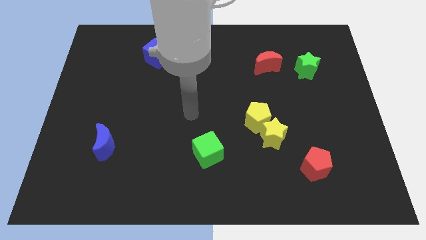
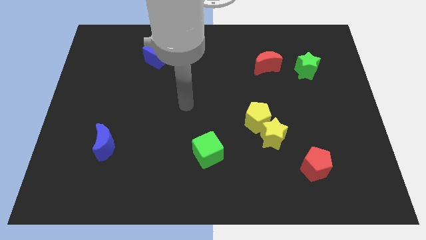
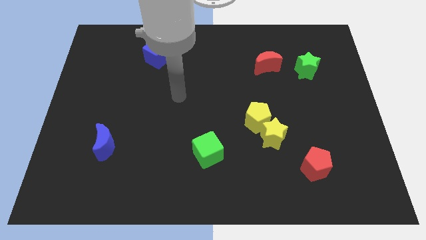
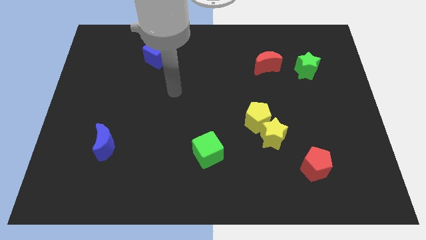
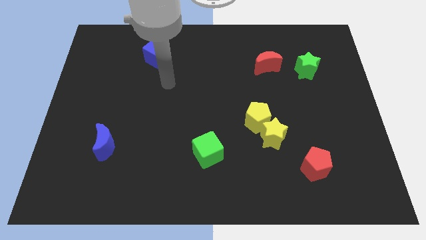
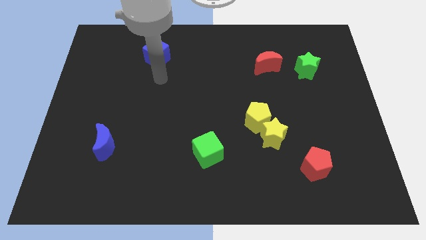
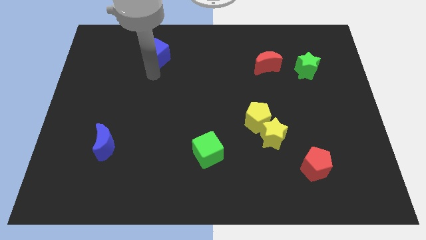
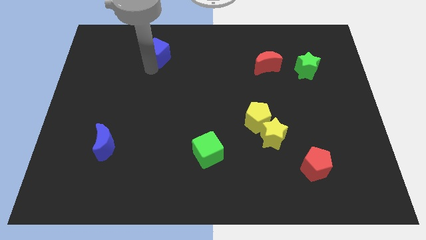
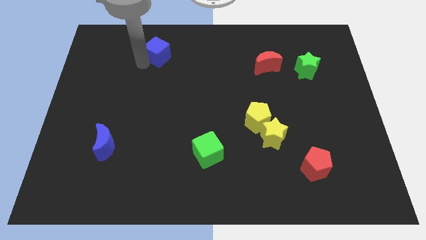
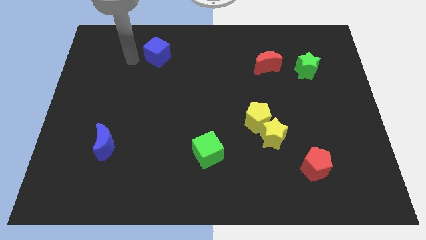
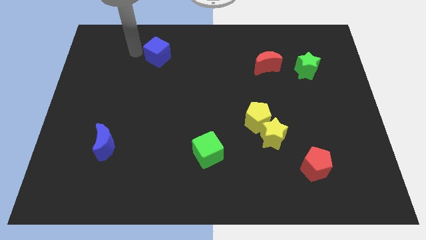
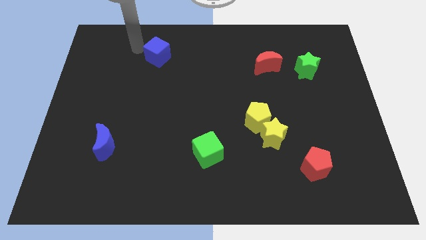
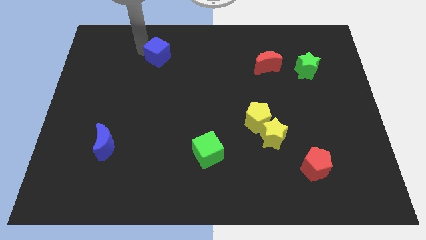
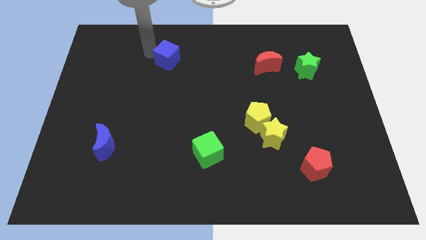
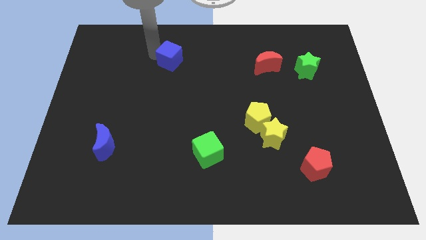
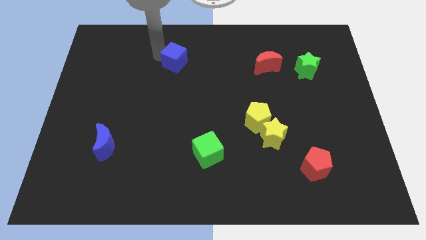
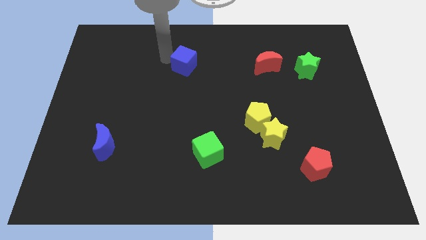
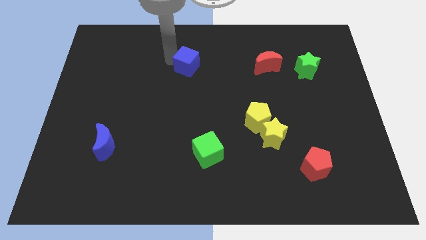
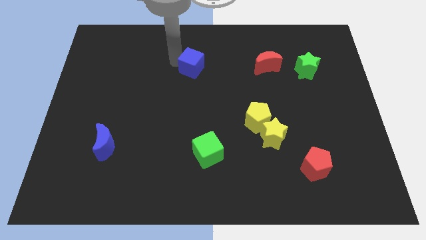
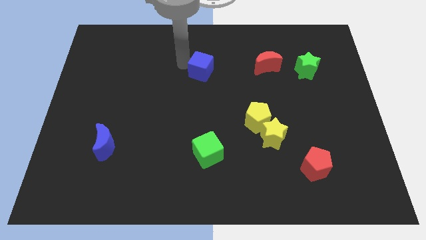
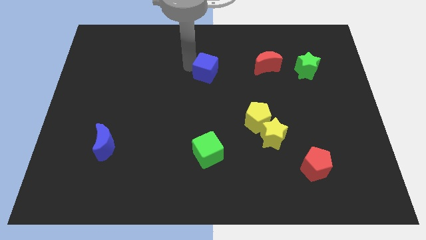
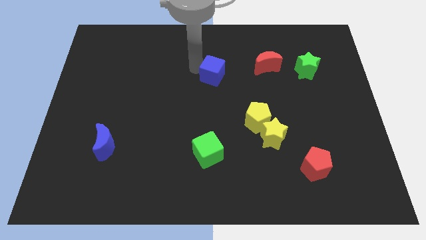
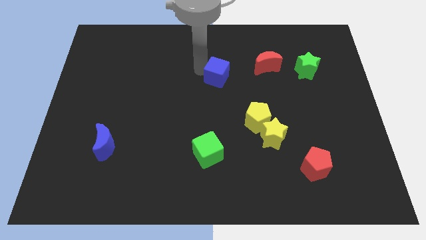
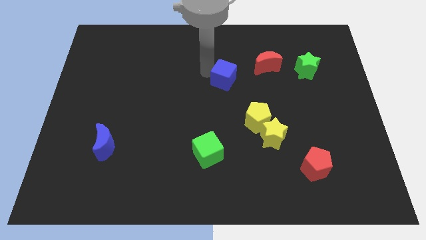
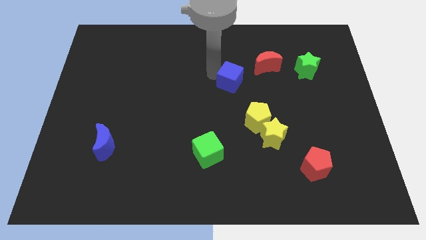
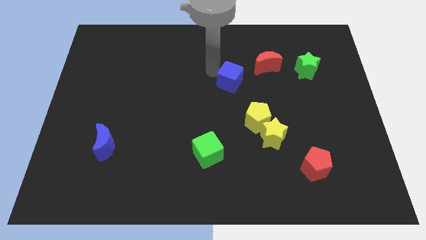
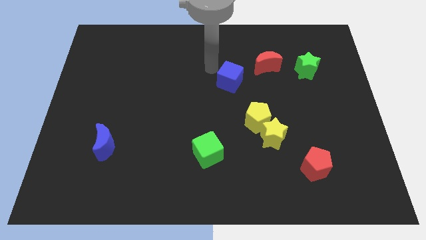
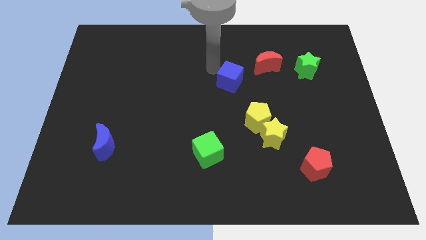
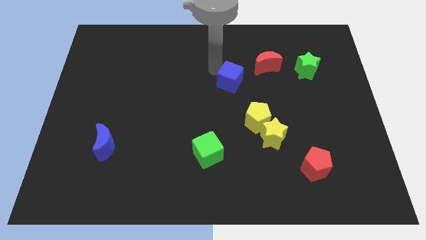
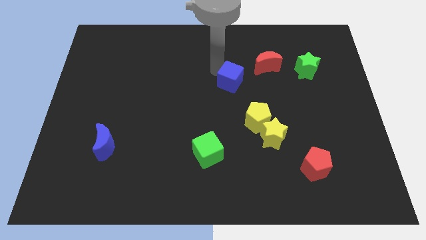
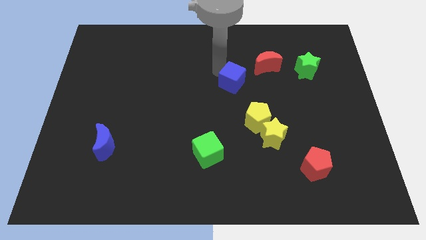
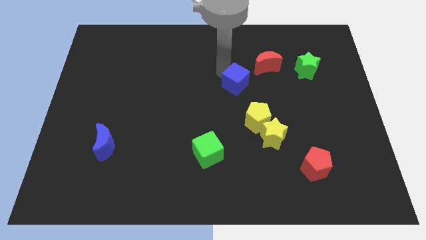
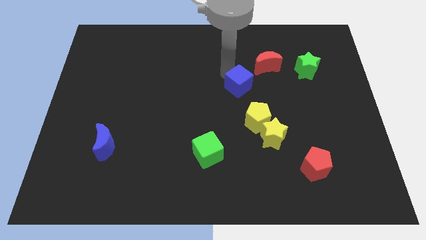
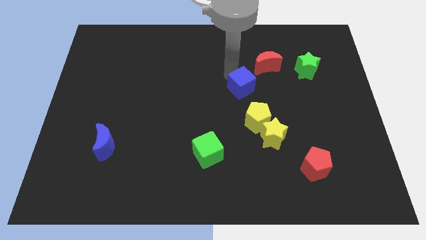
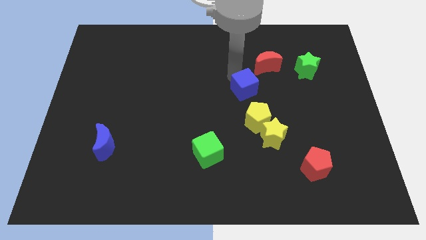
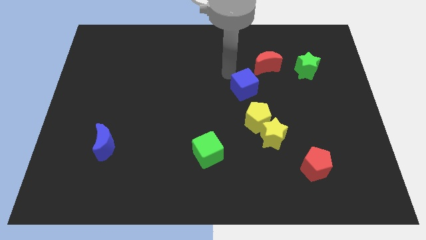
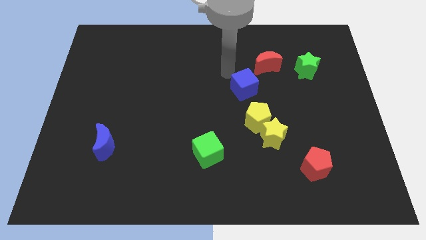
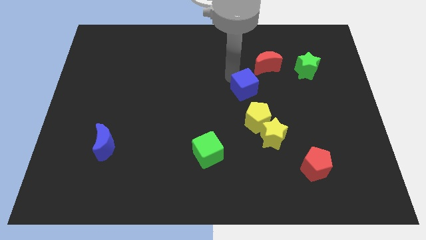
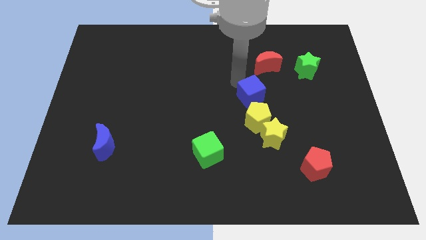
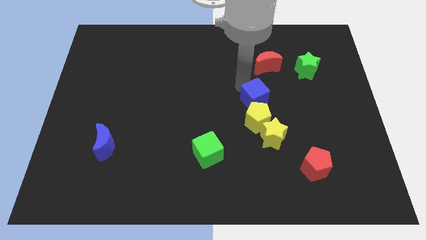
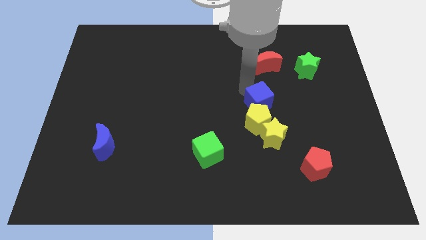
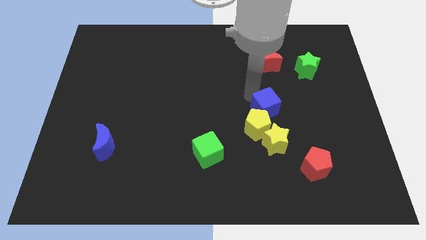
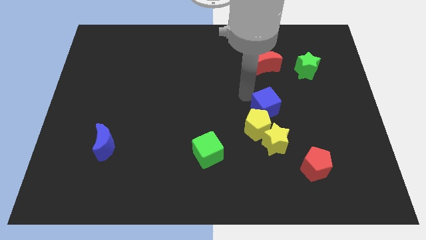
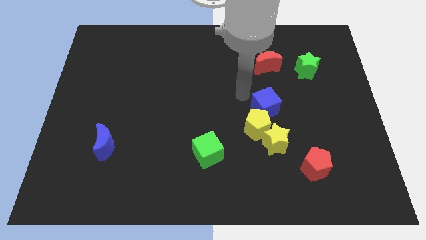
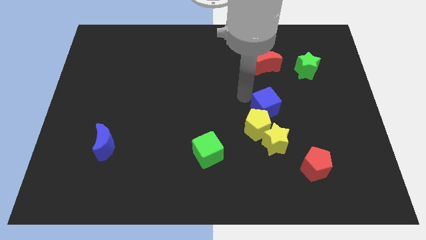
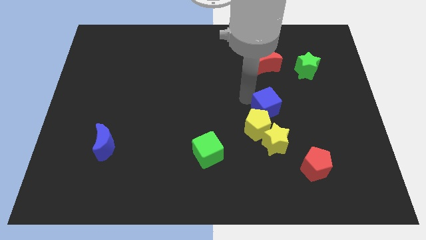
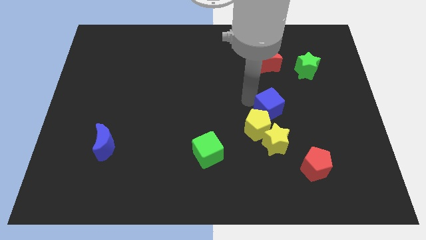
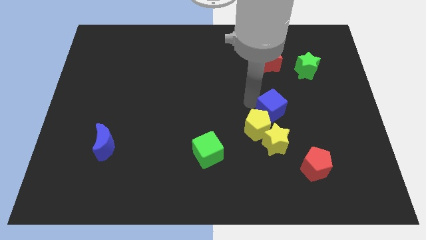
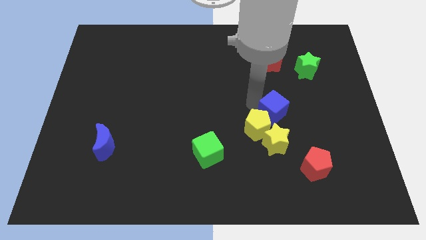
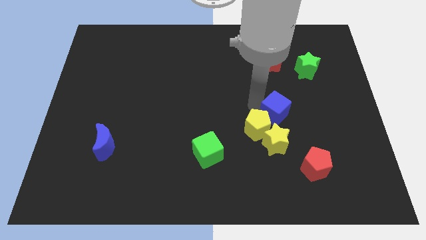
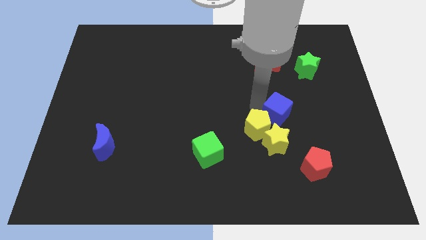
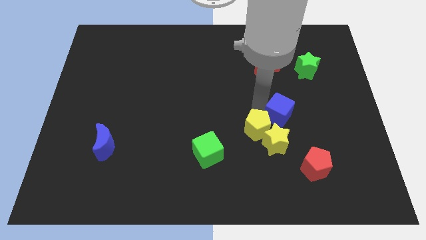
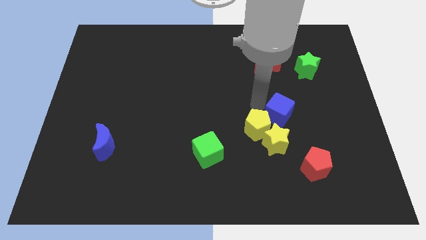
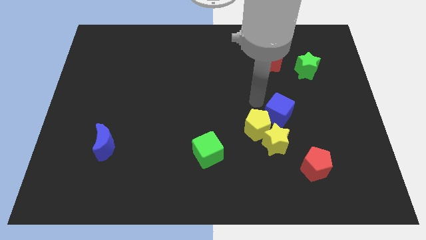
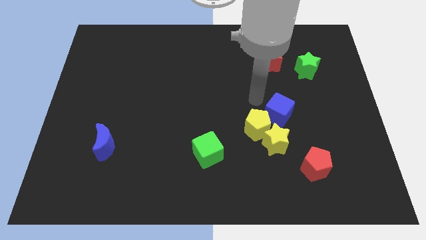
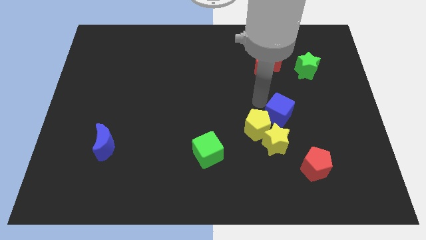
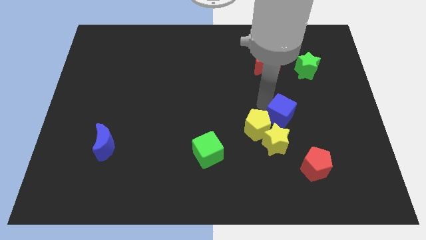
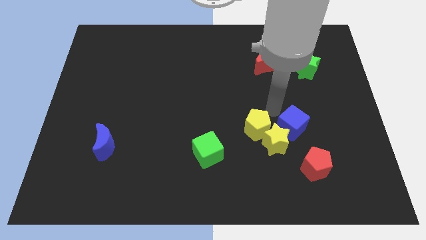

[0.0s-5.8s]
put the blue cube to the right side of the yellow star

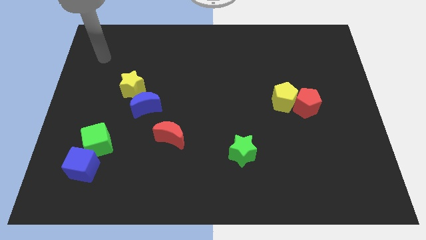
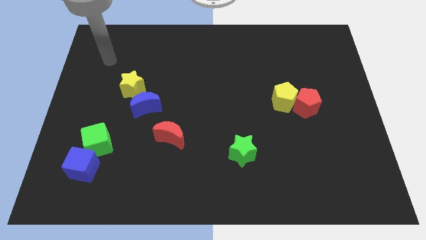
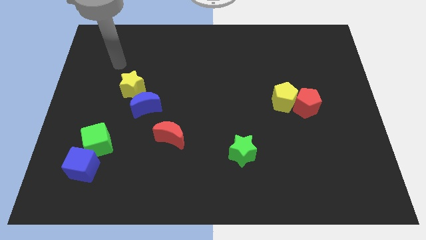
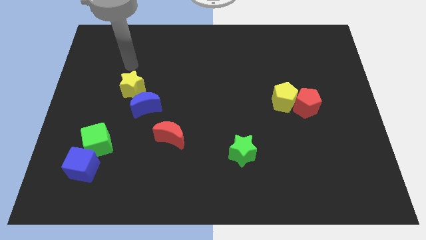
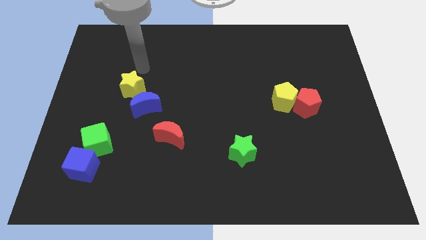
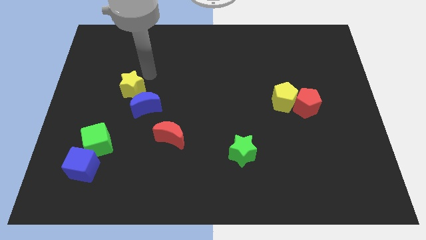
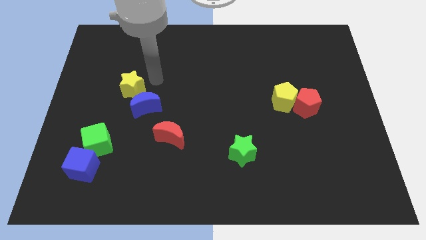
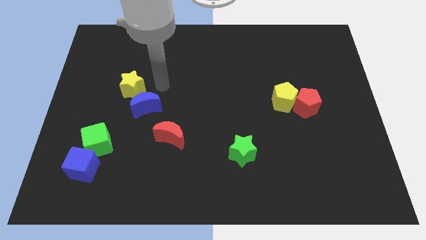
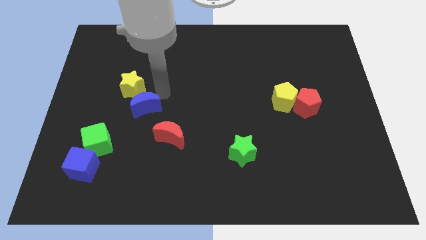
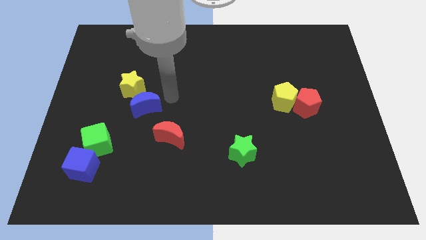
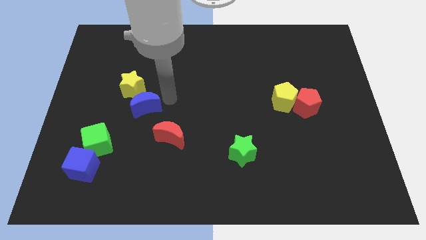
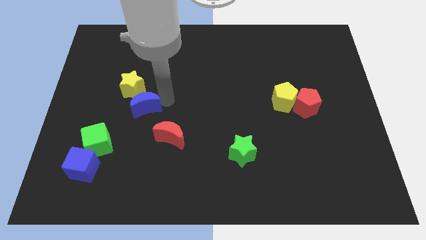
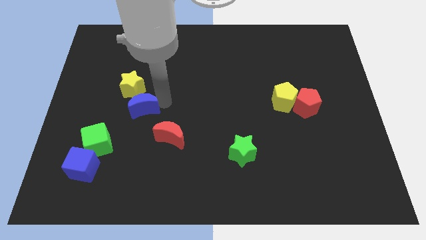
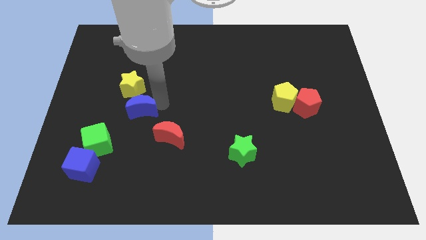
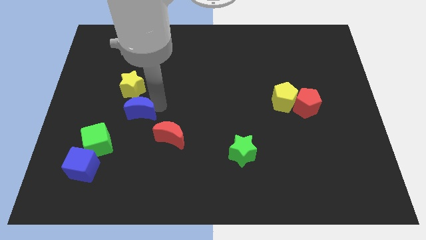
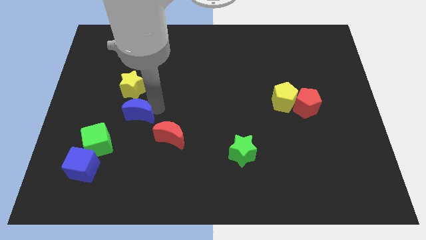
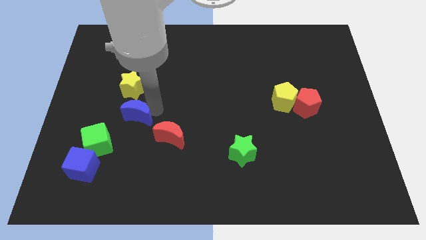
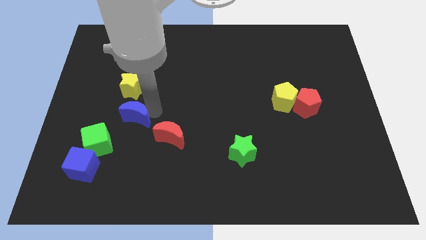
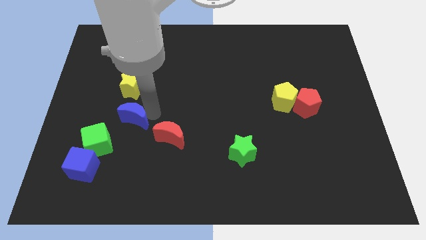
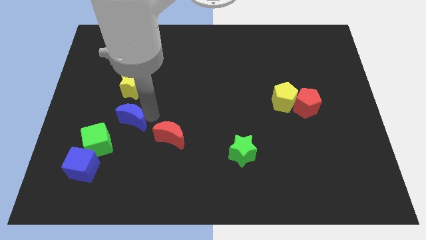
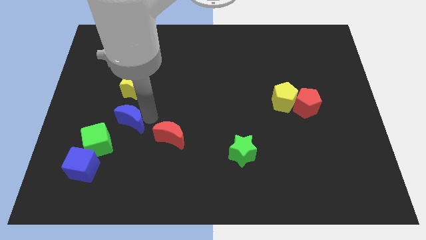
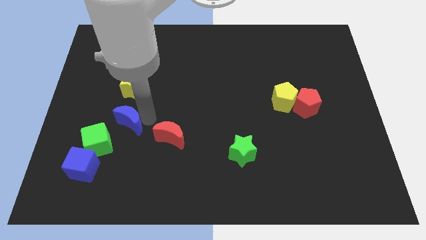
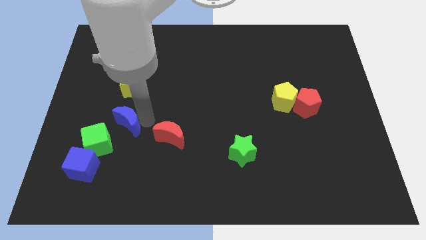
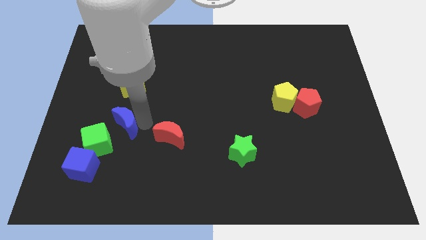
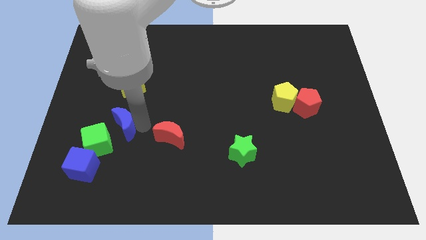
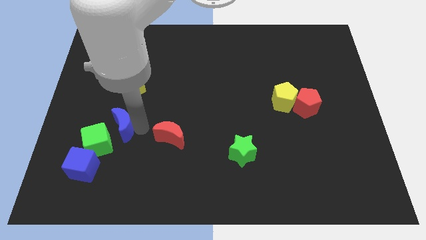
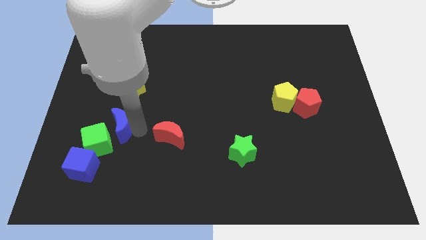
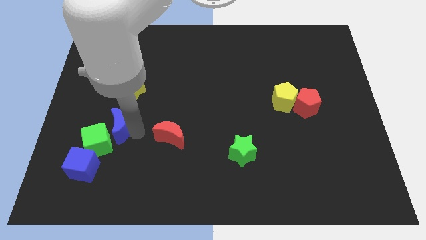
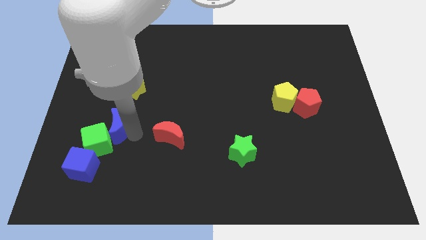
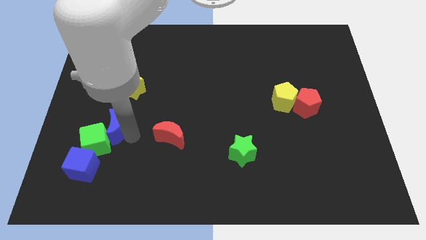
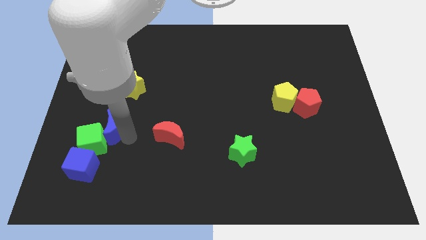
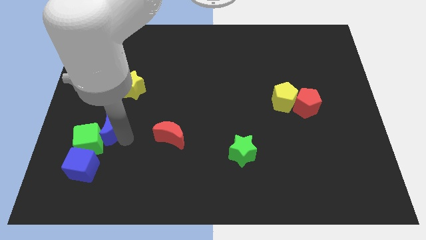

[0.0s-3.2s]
slide the blue moon above the blue cube
